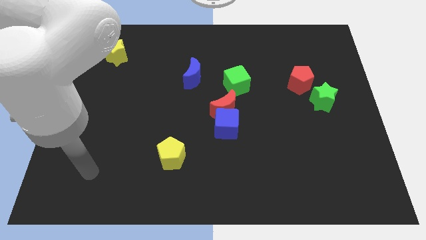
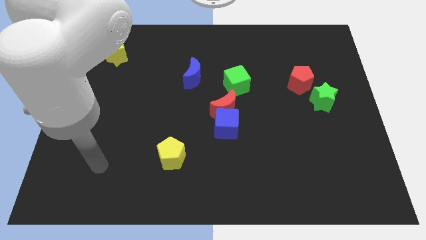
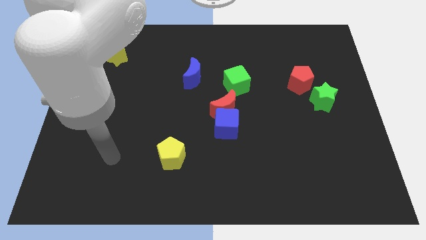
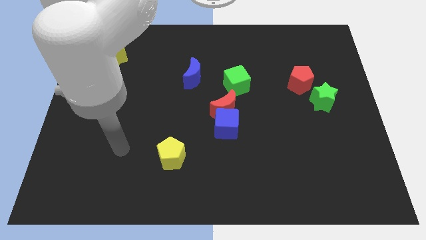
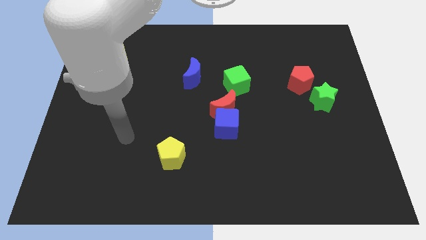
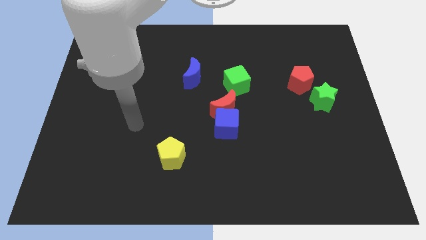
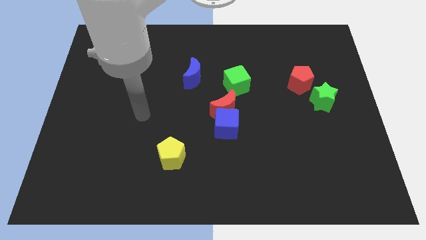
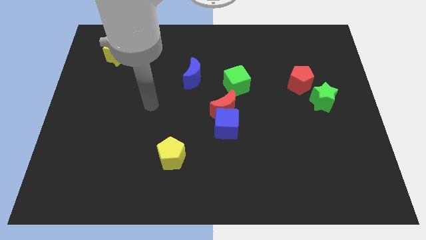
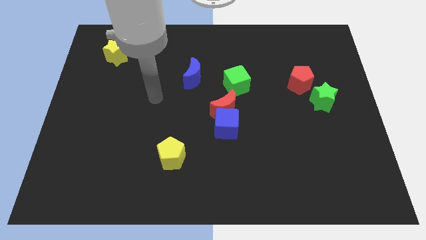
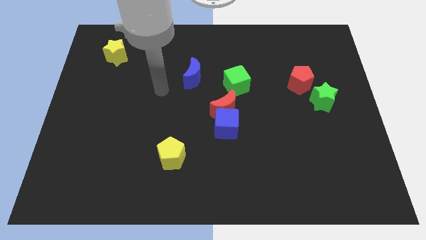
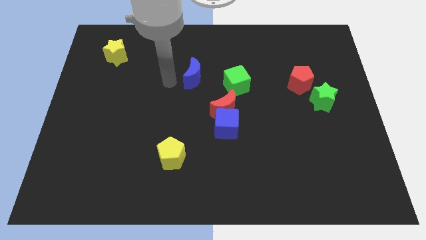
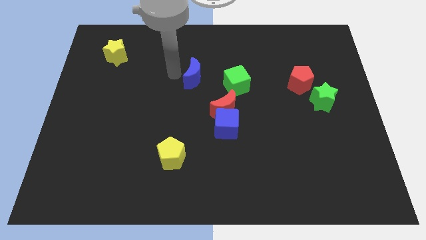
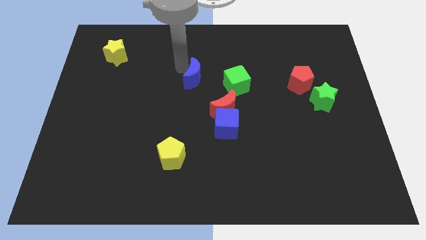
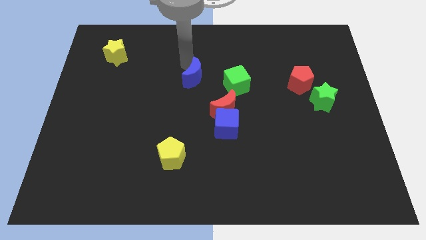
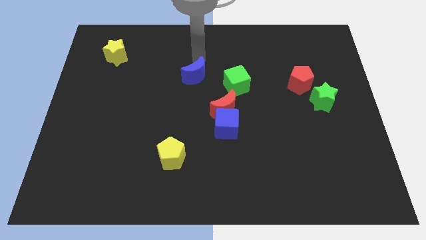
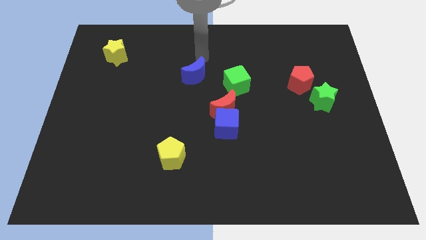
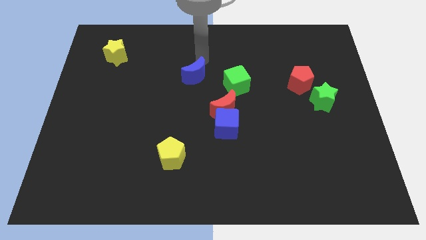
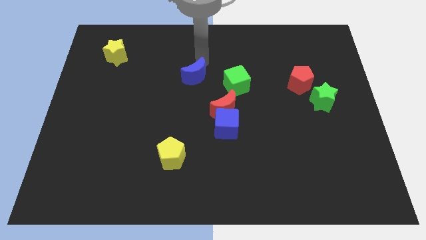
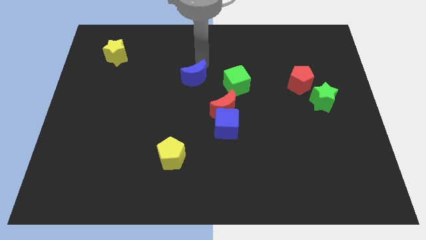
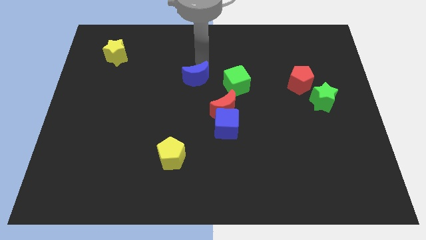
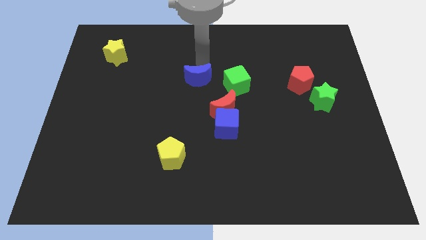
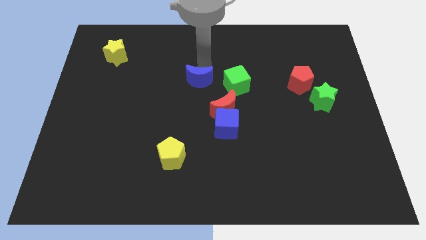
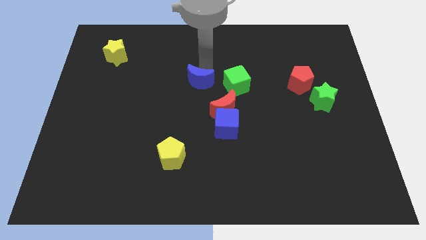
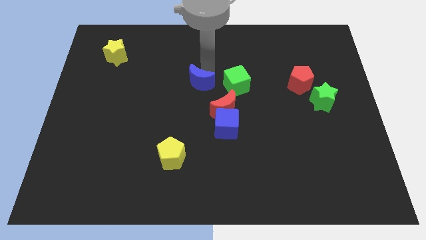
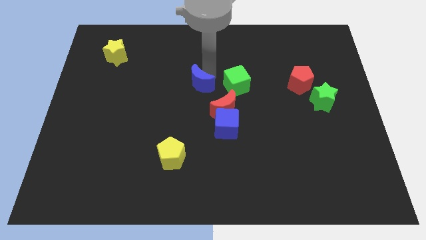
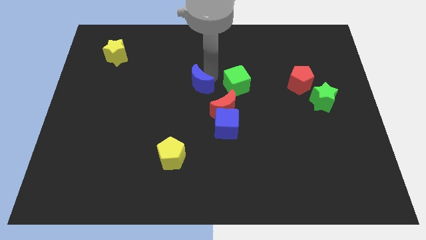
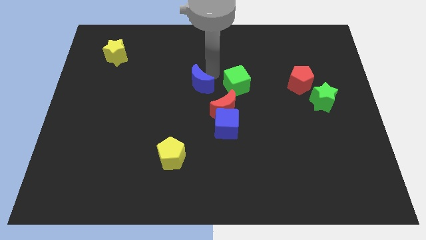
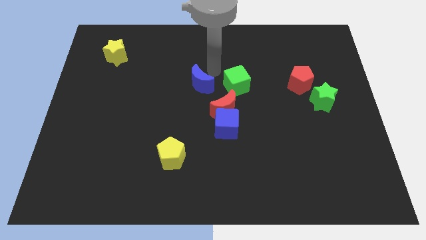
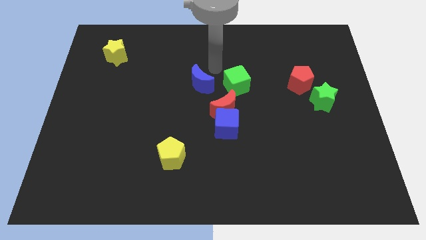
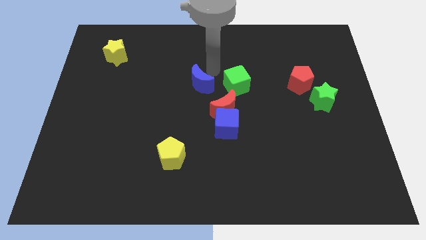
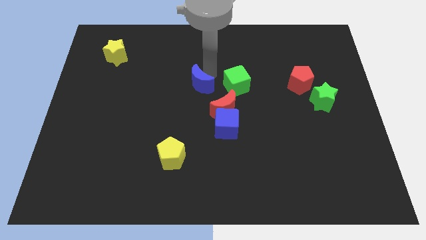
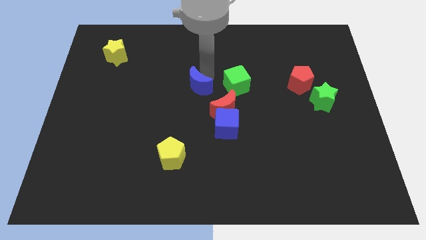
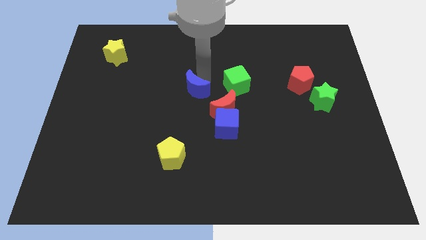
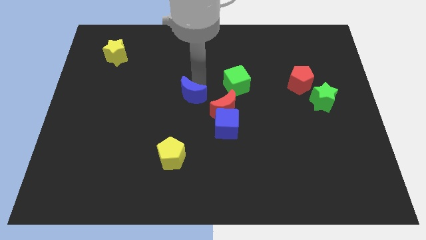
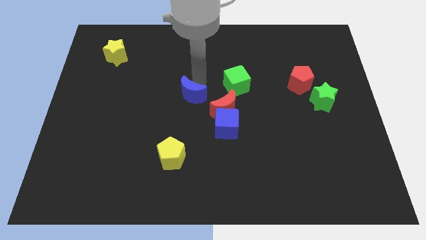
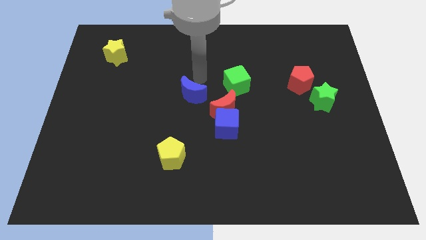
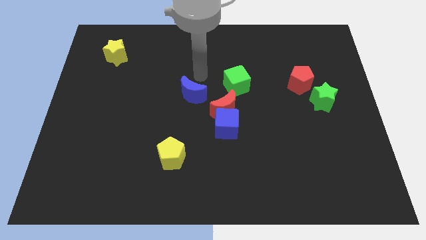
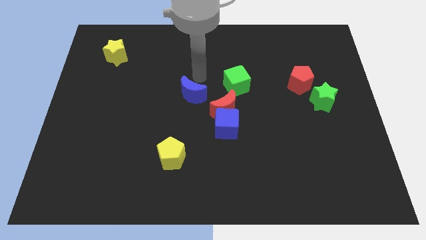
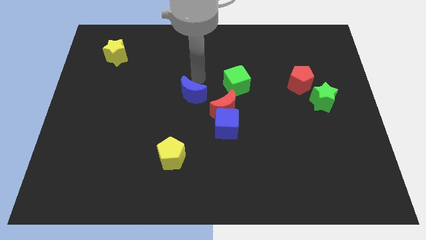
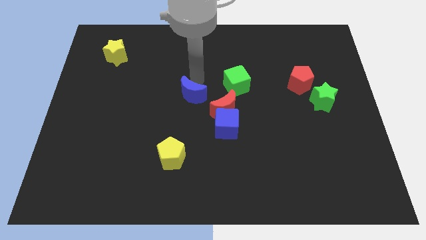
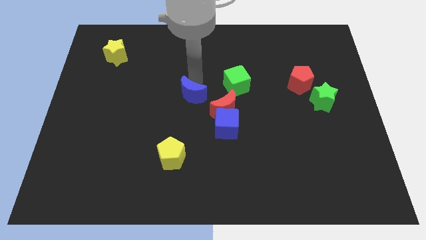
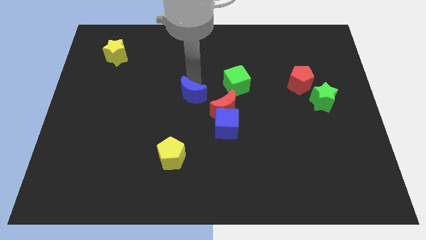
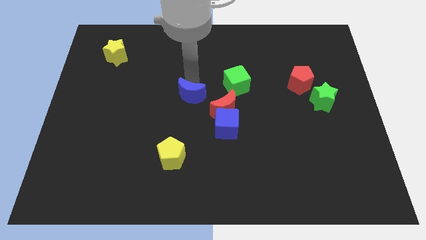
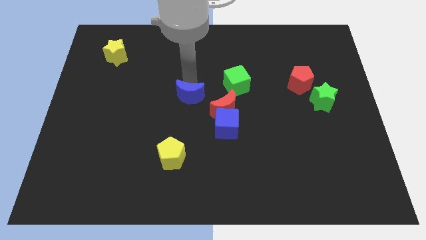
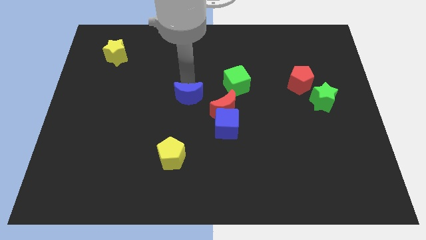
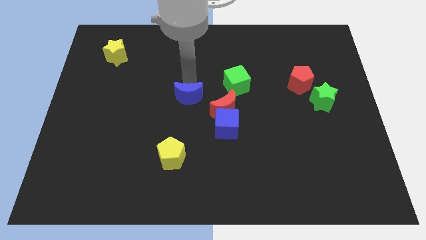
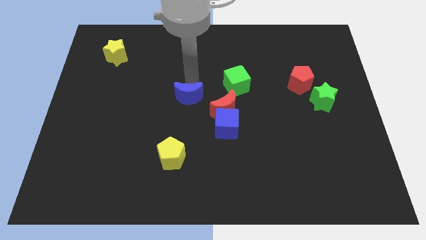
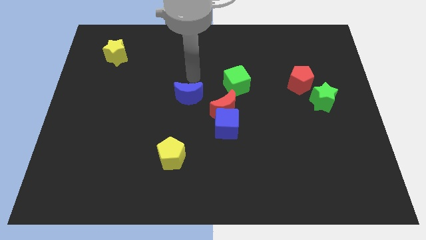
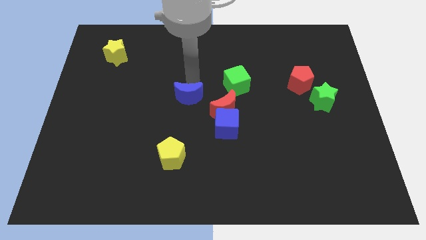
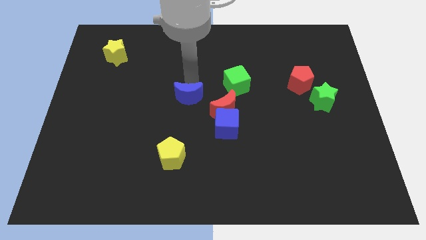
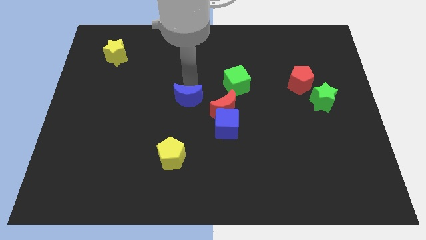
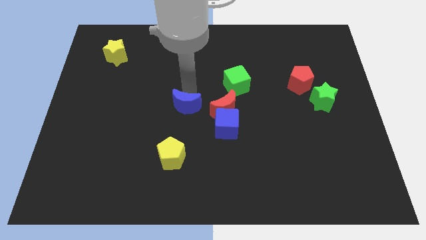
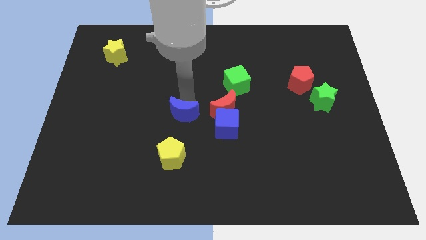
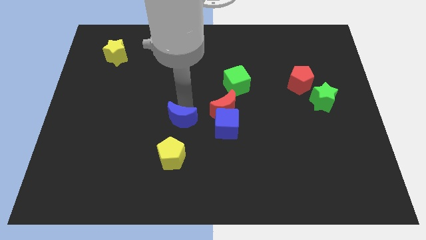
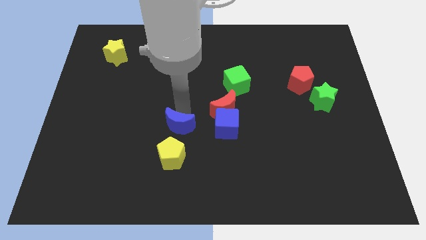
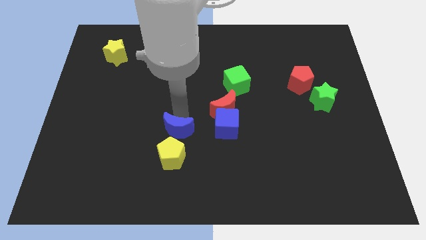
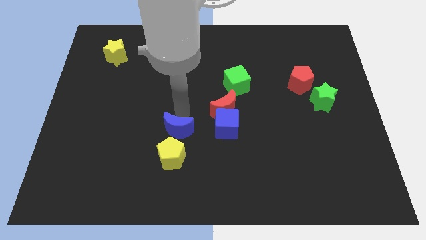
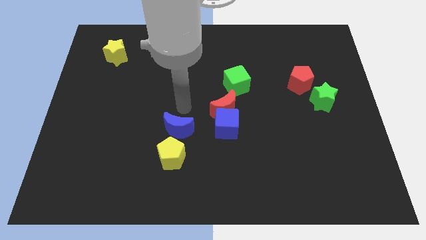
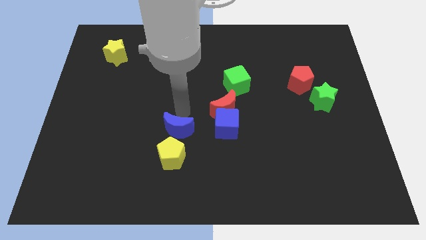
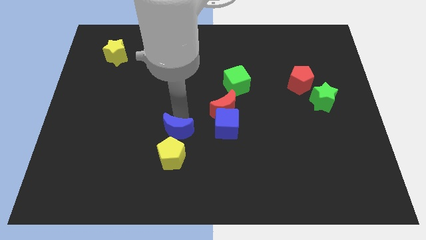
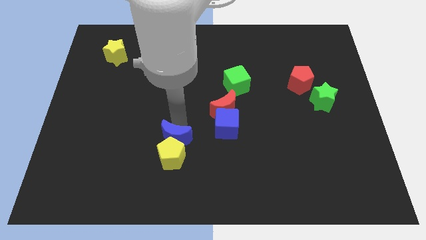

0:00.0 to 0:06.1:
put the blue moon next to the yellow pentagon
